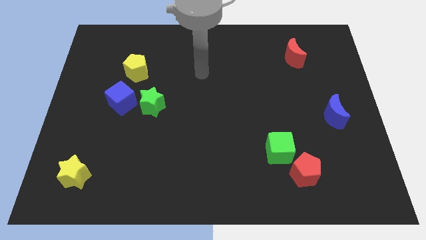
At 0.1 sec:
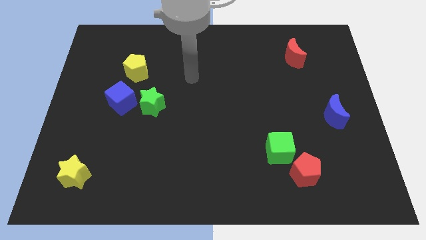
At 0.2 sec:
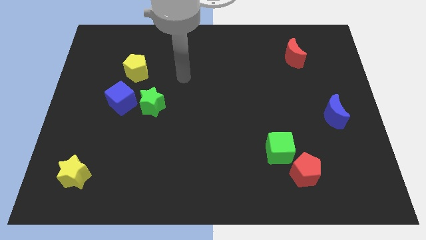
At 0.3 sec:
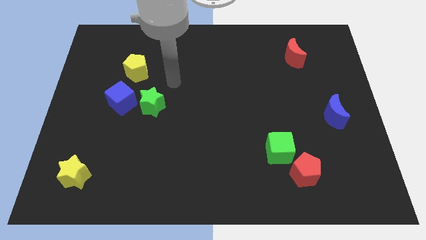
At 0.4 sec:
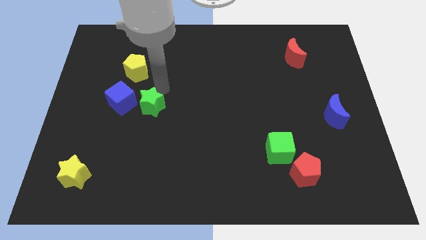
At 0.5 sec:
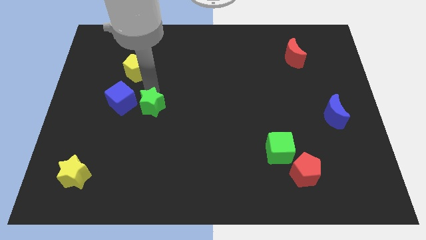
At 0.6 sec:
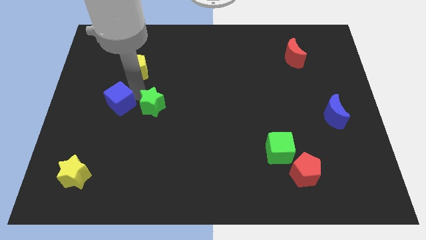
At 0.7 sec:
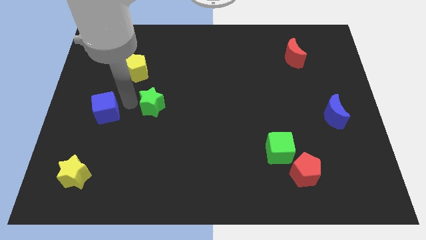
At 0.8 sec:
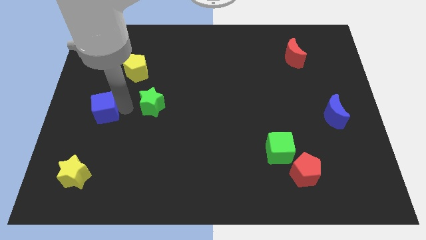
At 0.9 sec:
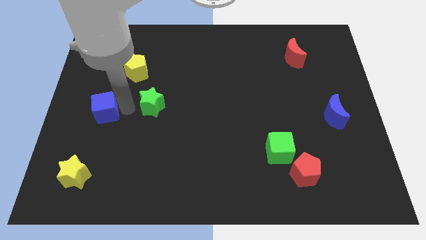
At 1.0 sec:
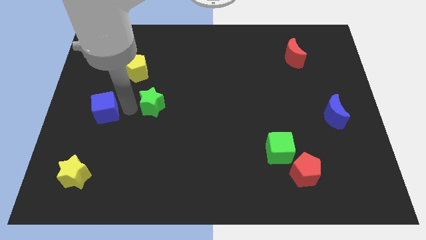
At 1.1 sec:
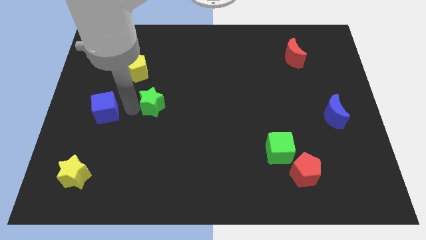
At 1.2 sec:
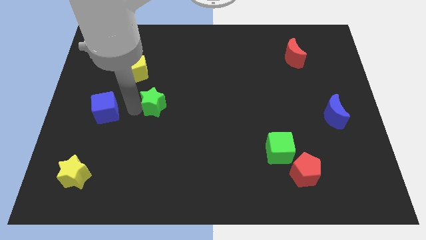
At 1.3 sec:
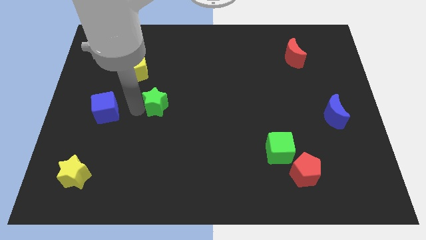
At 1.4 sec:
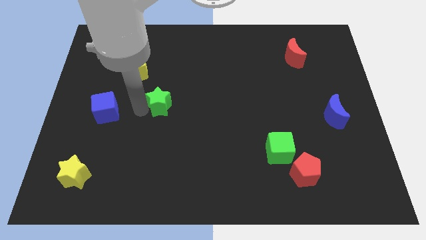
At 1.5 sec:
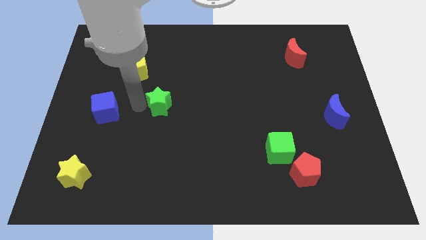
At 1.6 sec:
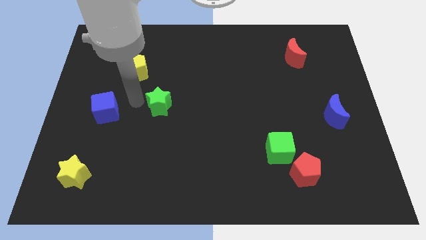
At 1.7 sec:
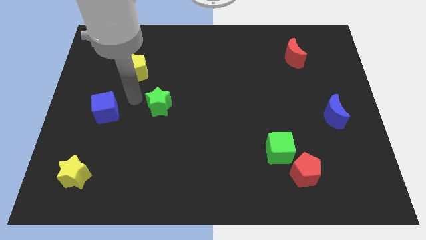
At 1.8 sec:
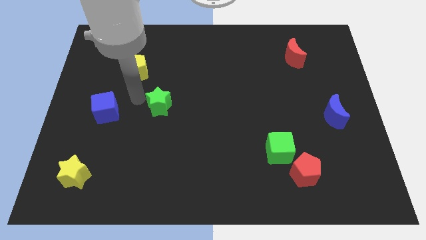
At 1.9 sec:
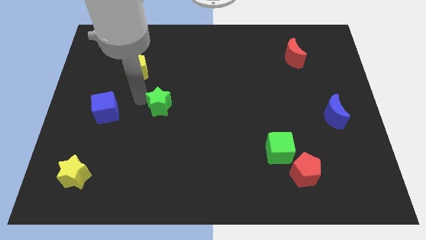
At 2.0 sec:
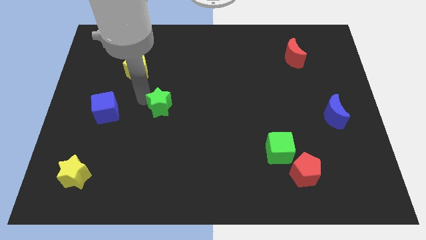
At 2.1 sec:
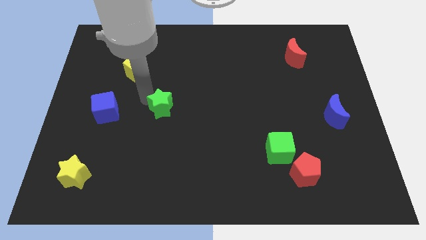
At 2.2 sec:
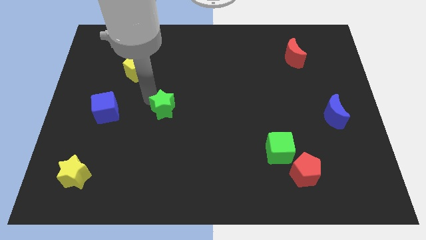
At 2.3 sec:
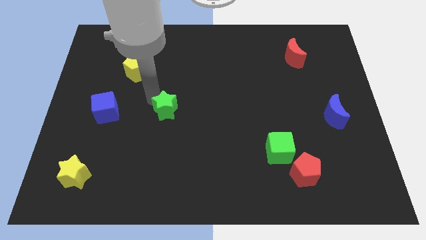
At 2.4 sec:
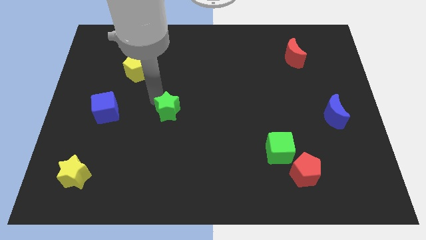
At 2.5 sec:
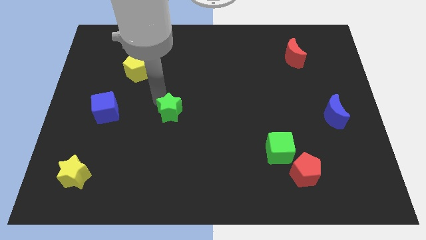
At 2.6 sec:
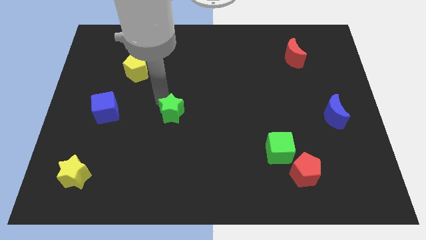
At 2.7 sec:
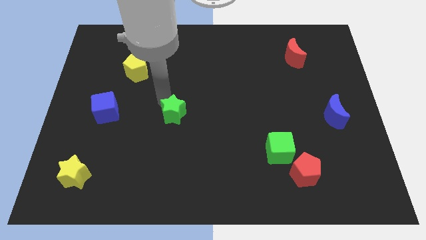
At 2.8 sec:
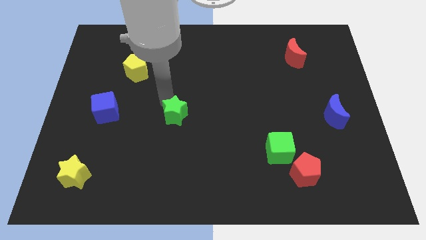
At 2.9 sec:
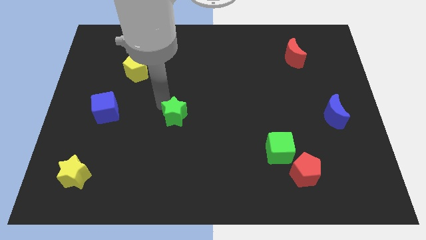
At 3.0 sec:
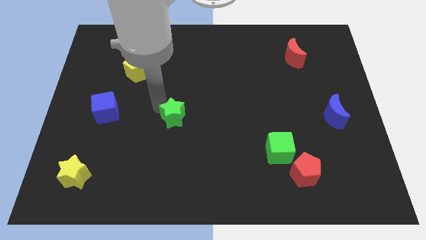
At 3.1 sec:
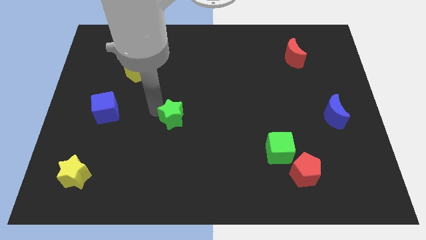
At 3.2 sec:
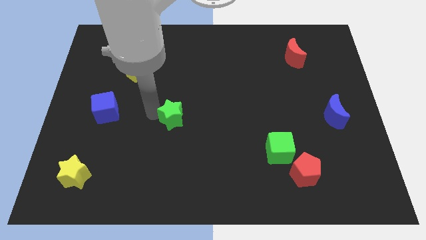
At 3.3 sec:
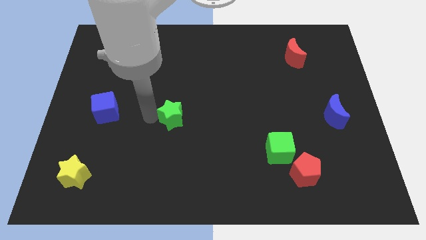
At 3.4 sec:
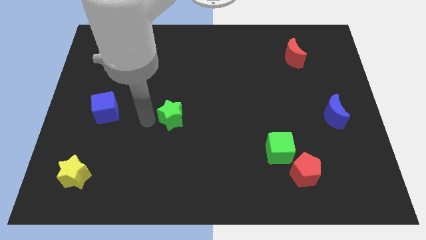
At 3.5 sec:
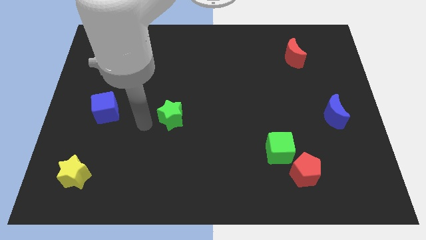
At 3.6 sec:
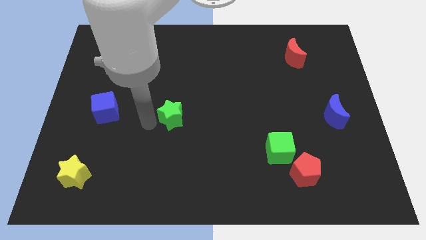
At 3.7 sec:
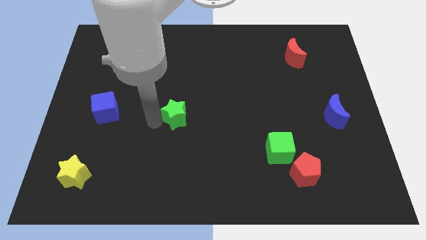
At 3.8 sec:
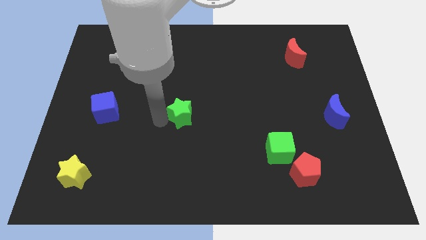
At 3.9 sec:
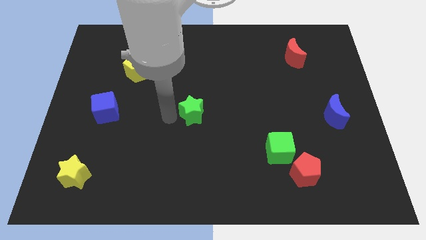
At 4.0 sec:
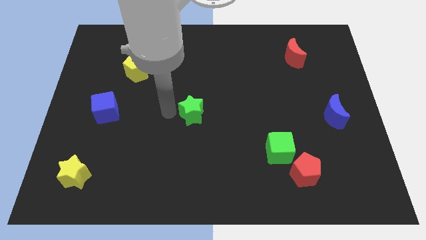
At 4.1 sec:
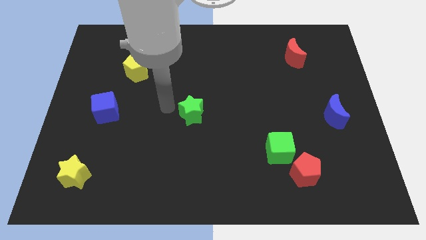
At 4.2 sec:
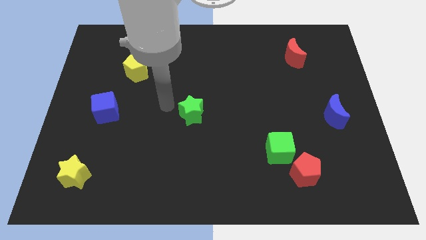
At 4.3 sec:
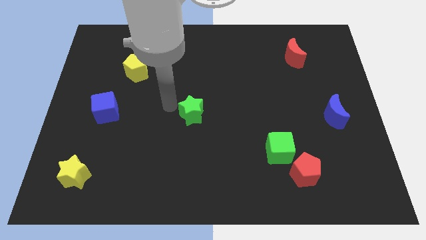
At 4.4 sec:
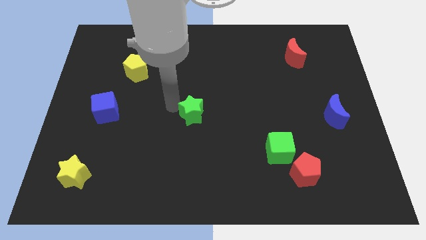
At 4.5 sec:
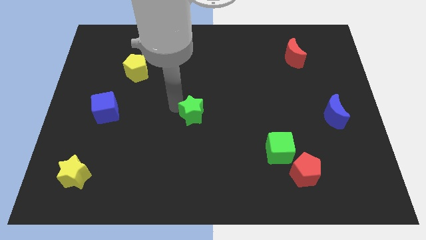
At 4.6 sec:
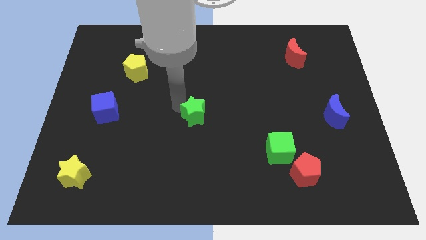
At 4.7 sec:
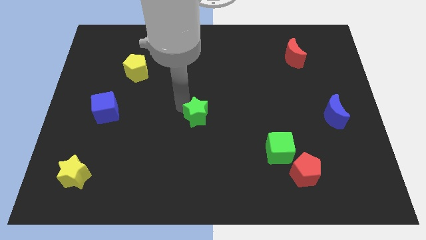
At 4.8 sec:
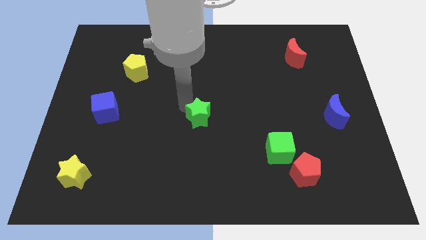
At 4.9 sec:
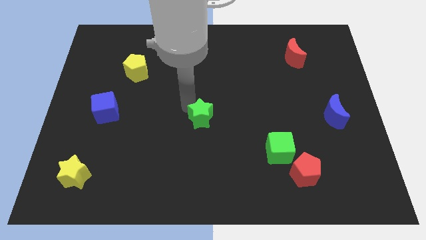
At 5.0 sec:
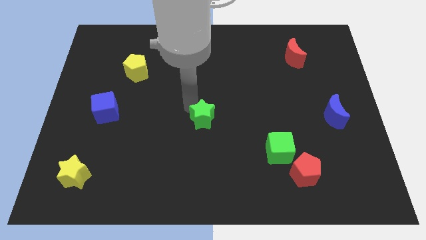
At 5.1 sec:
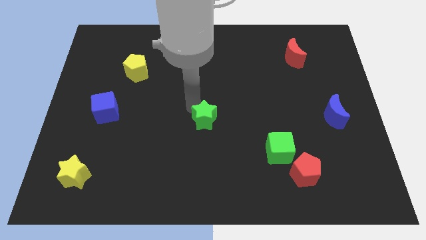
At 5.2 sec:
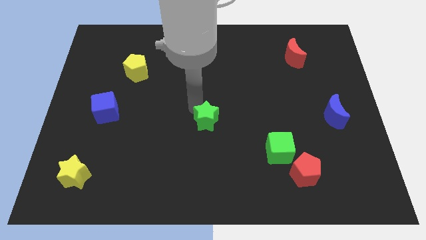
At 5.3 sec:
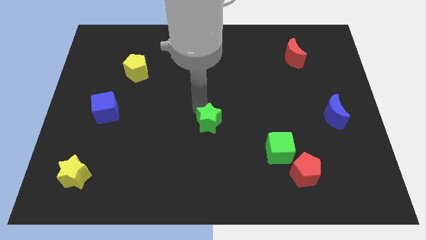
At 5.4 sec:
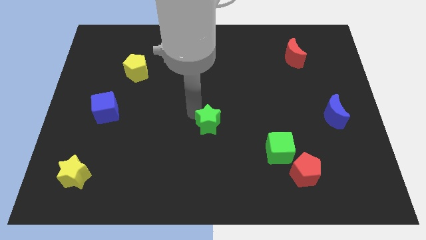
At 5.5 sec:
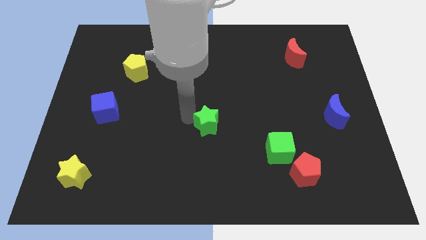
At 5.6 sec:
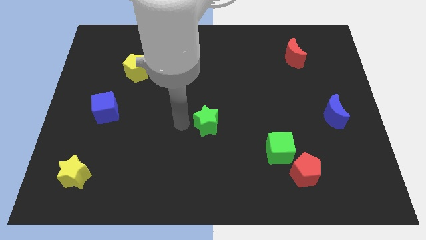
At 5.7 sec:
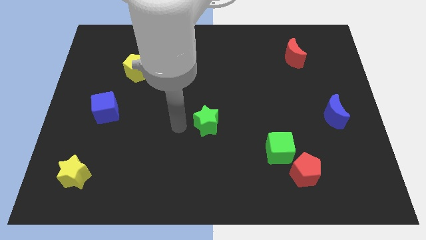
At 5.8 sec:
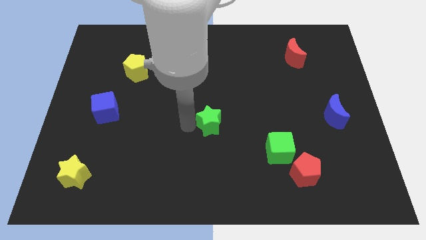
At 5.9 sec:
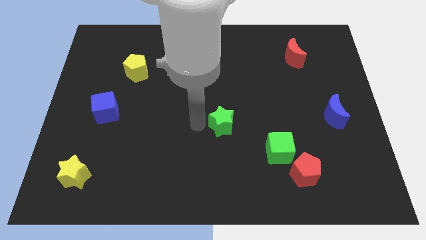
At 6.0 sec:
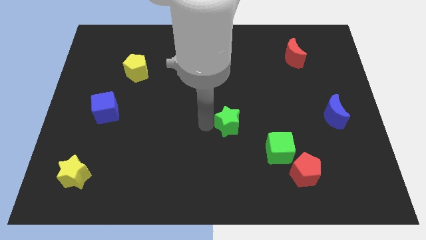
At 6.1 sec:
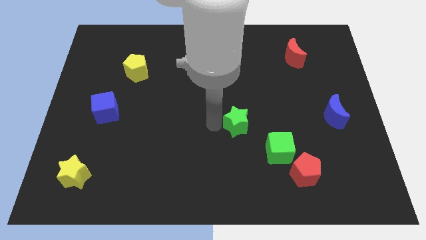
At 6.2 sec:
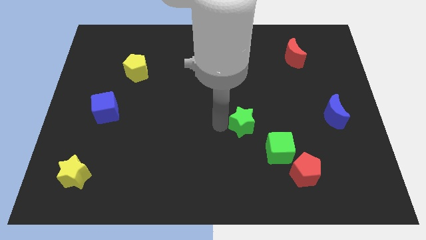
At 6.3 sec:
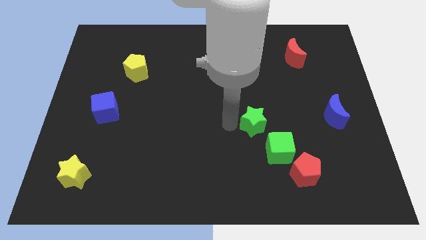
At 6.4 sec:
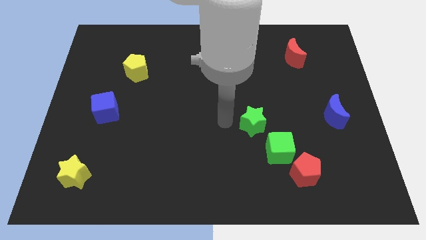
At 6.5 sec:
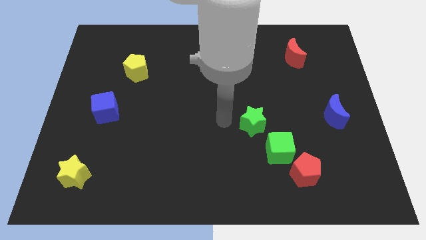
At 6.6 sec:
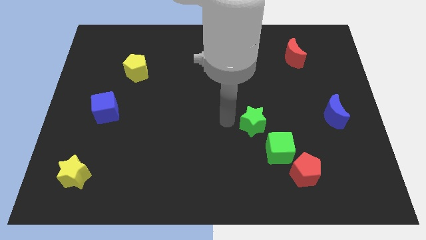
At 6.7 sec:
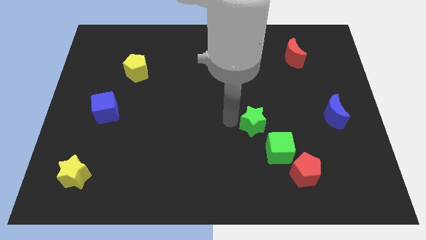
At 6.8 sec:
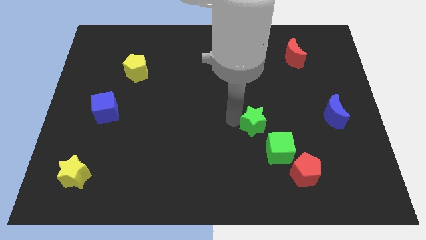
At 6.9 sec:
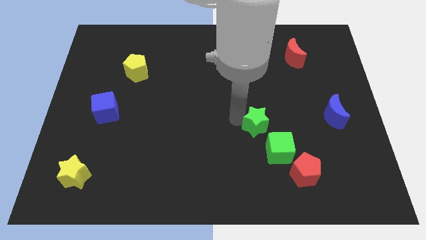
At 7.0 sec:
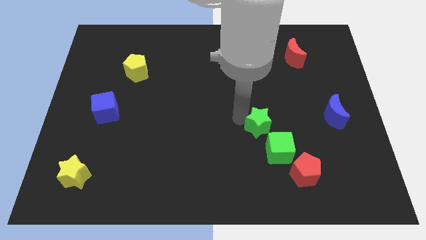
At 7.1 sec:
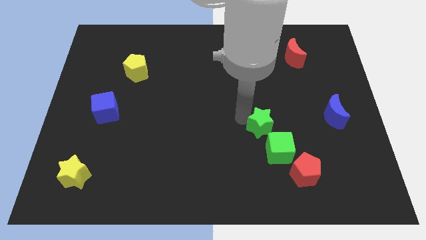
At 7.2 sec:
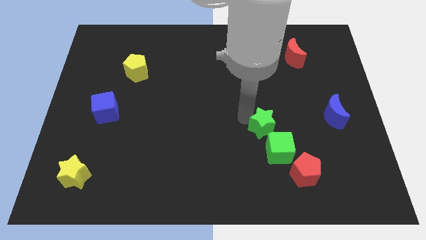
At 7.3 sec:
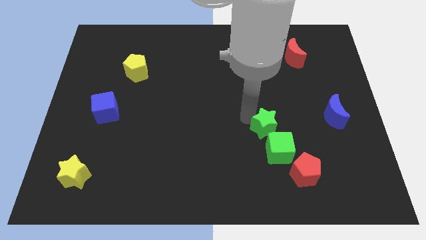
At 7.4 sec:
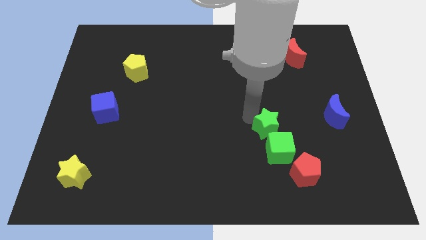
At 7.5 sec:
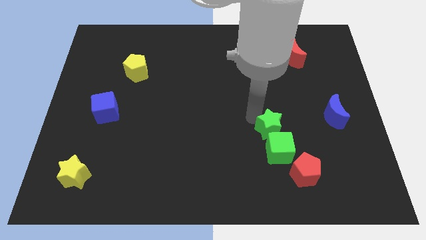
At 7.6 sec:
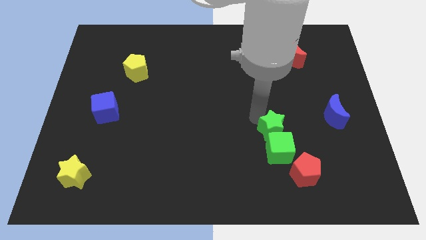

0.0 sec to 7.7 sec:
move the green star diagonally up and to the right of the green cube

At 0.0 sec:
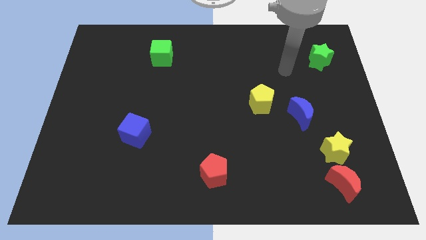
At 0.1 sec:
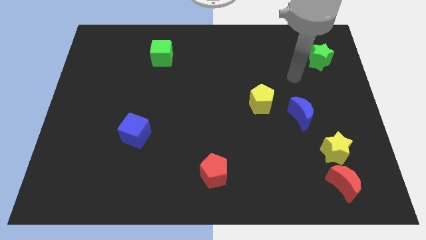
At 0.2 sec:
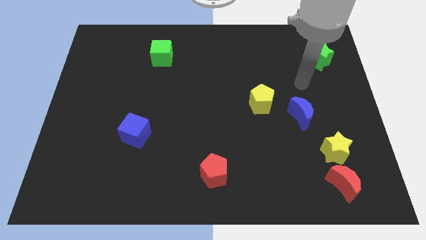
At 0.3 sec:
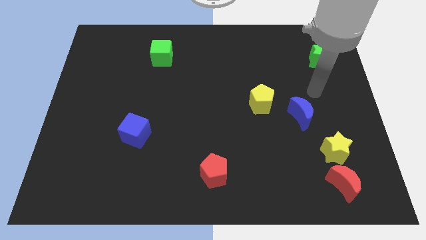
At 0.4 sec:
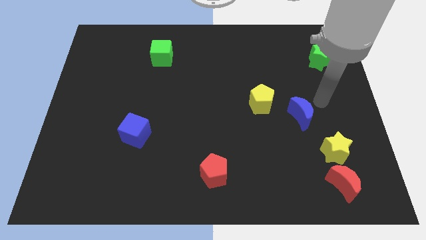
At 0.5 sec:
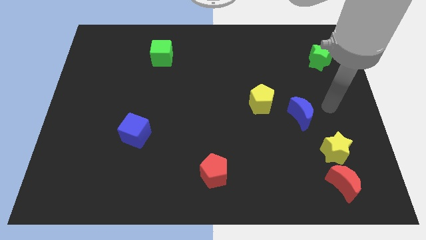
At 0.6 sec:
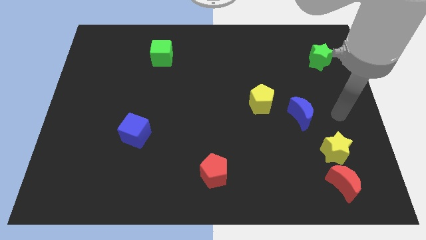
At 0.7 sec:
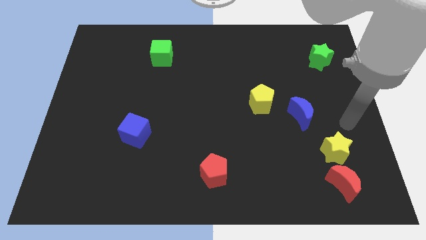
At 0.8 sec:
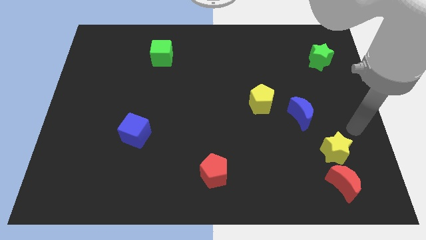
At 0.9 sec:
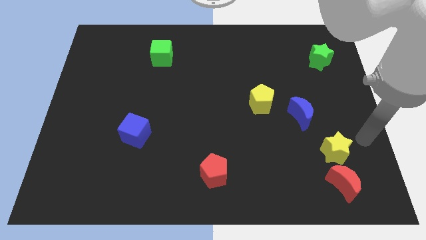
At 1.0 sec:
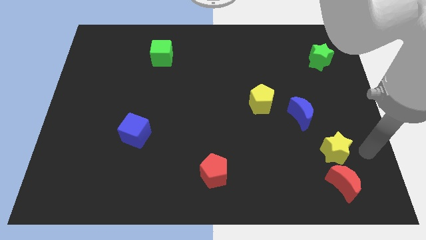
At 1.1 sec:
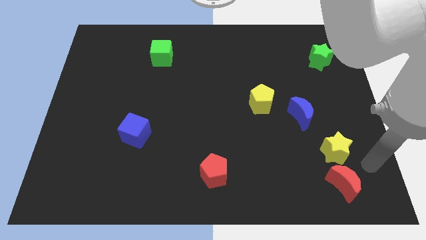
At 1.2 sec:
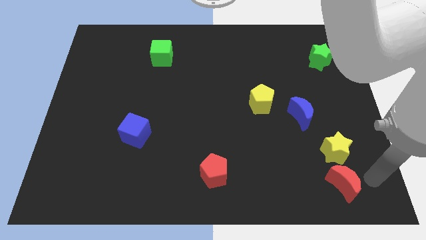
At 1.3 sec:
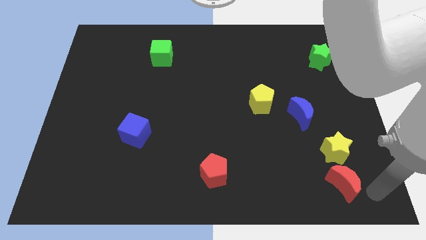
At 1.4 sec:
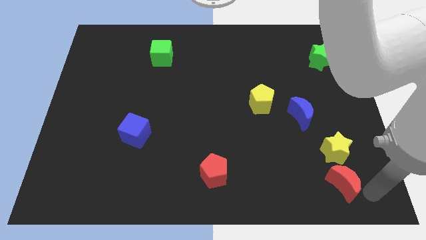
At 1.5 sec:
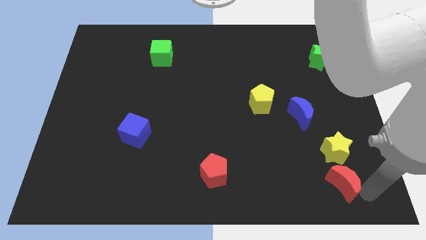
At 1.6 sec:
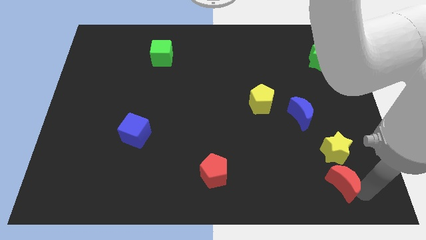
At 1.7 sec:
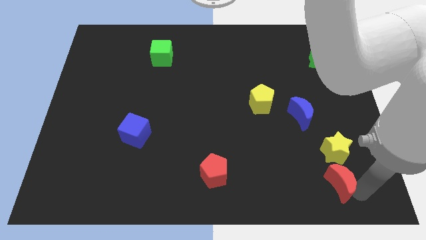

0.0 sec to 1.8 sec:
move the red moon to the bottom left of the yellow star
